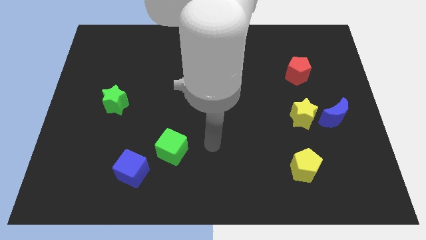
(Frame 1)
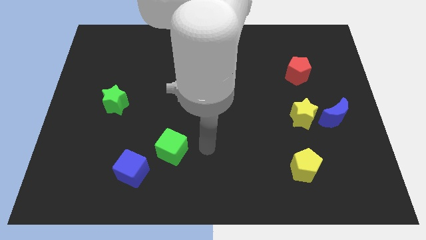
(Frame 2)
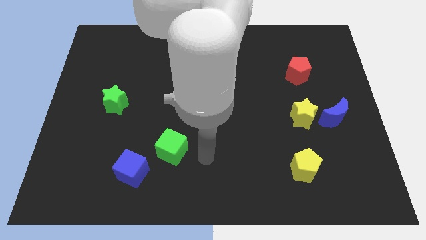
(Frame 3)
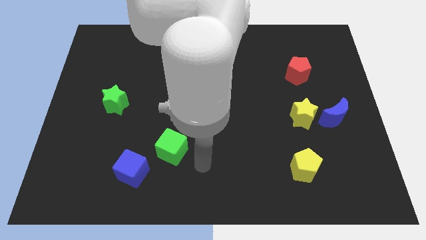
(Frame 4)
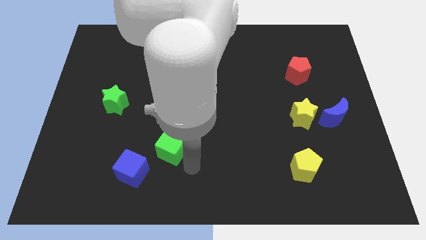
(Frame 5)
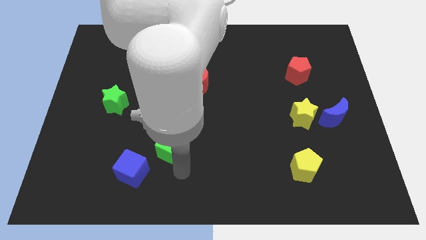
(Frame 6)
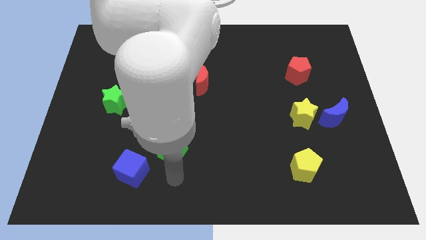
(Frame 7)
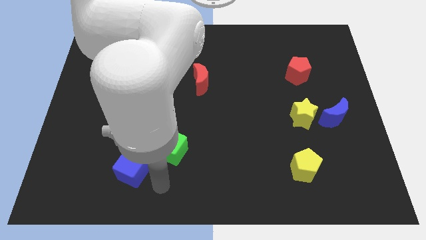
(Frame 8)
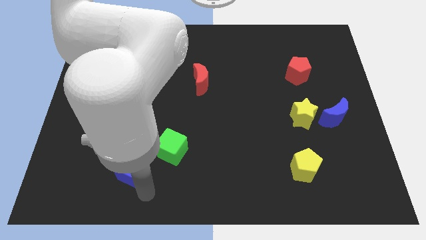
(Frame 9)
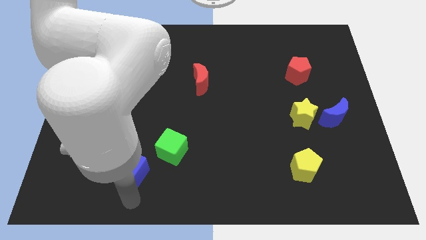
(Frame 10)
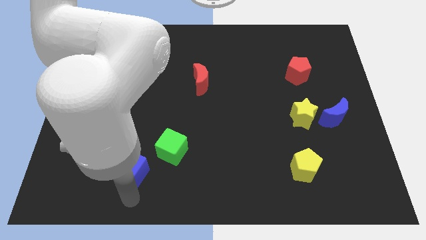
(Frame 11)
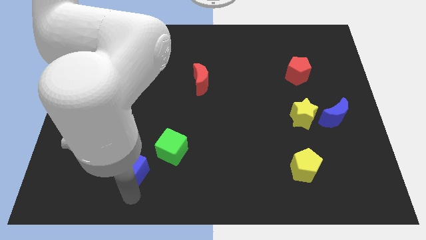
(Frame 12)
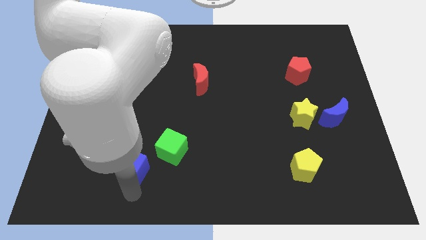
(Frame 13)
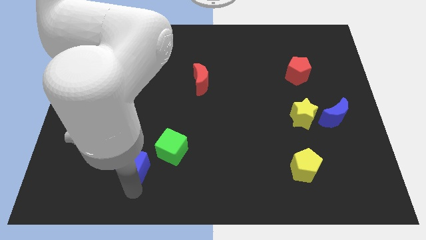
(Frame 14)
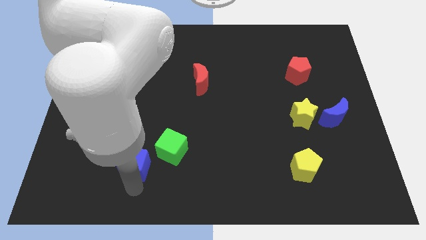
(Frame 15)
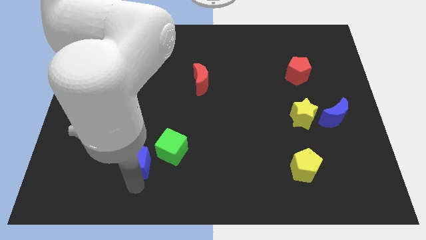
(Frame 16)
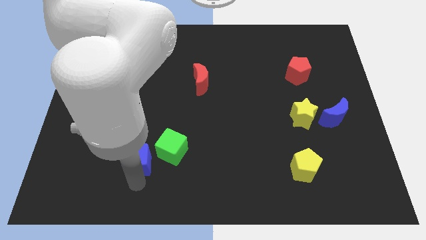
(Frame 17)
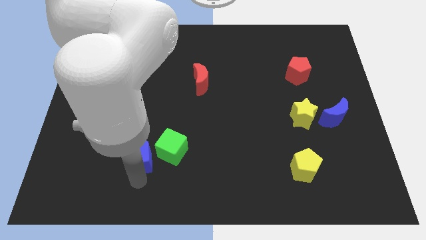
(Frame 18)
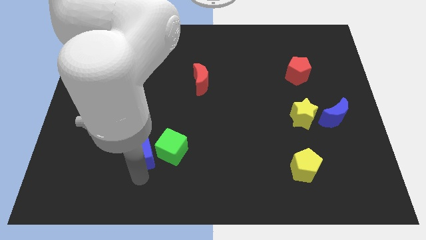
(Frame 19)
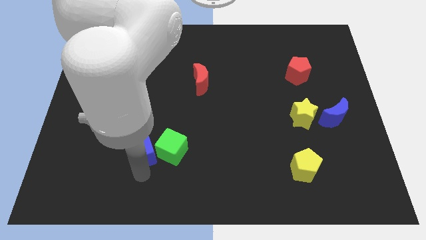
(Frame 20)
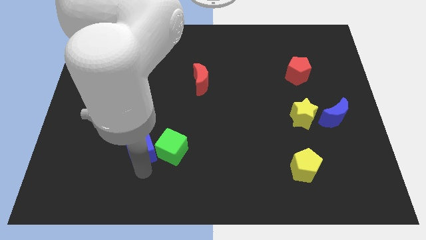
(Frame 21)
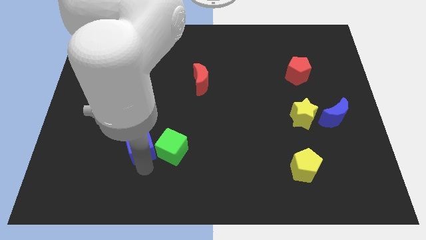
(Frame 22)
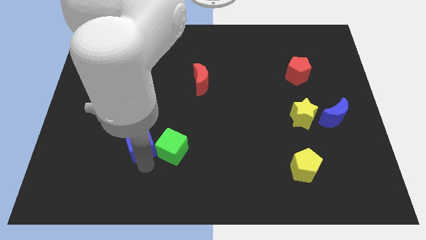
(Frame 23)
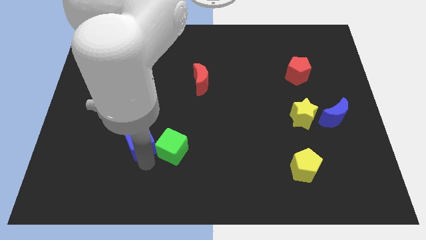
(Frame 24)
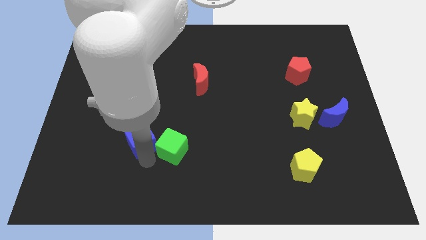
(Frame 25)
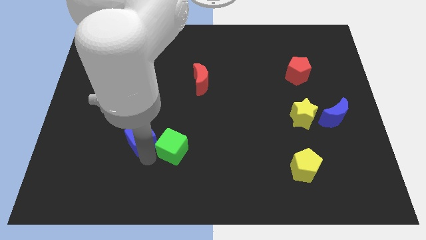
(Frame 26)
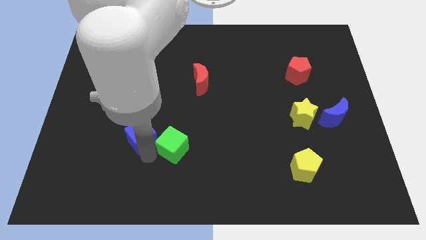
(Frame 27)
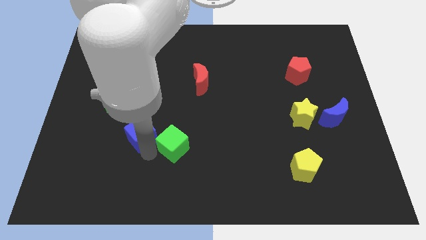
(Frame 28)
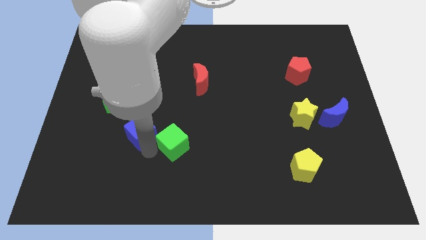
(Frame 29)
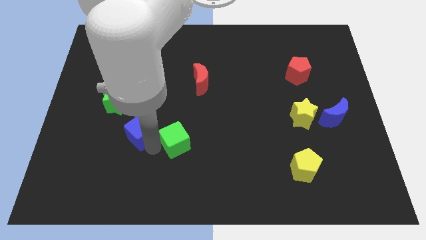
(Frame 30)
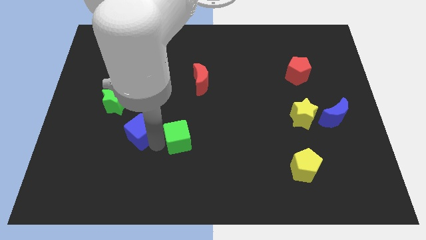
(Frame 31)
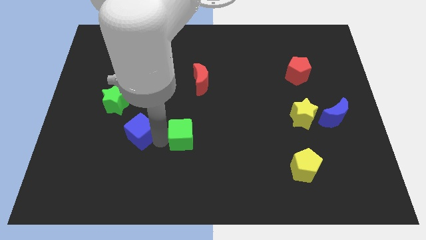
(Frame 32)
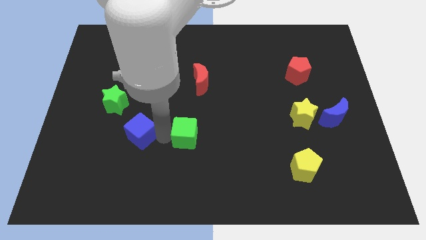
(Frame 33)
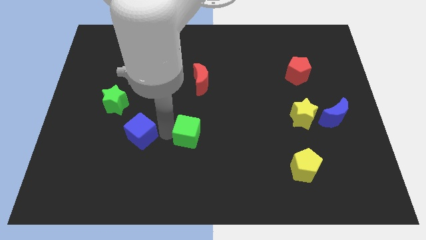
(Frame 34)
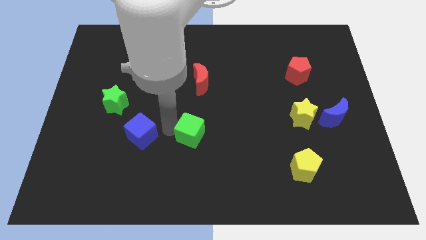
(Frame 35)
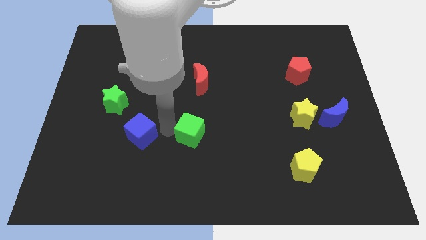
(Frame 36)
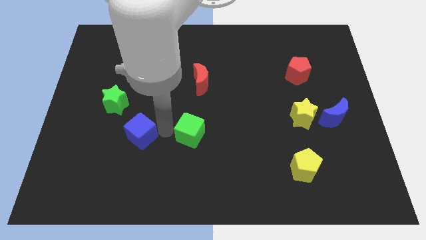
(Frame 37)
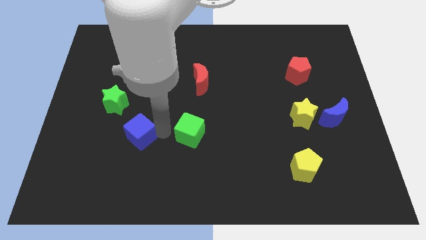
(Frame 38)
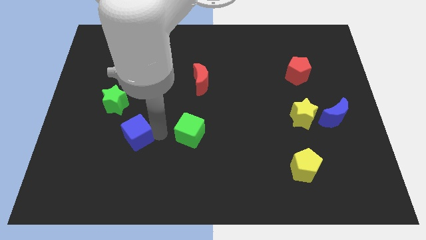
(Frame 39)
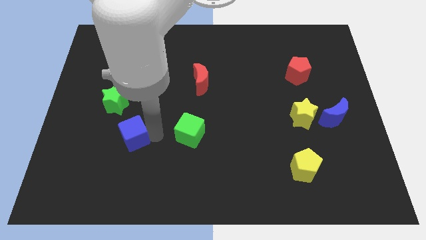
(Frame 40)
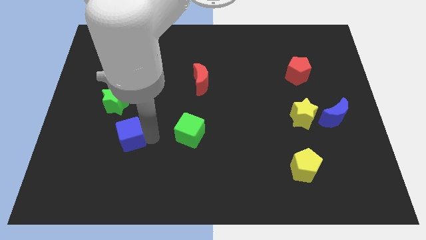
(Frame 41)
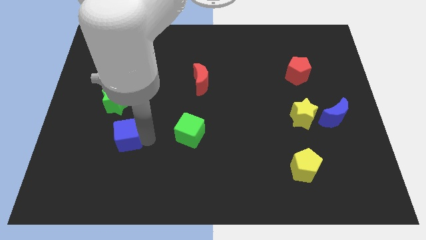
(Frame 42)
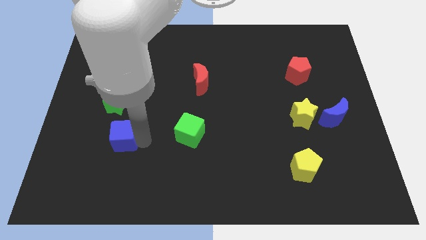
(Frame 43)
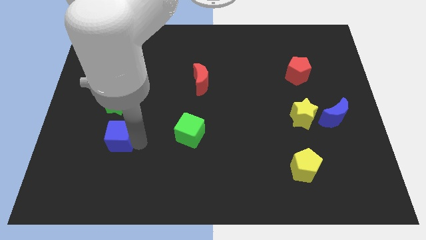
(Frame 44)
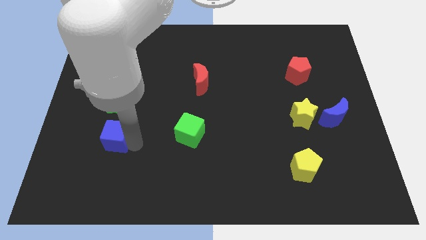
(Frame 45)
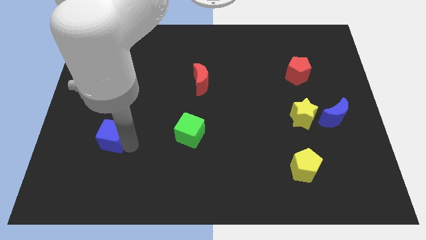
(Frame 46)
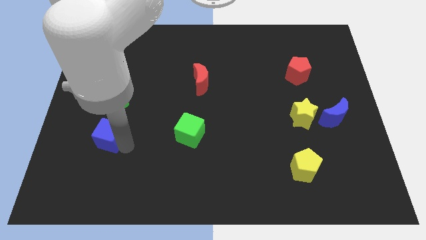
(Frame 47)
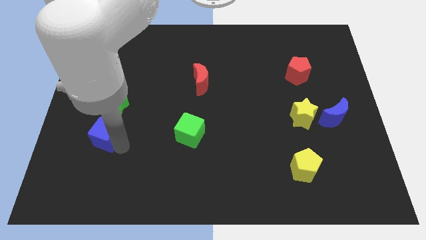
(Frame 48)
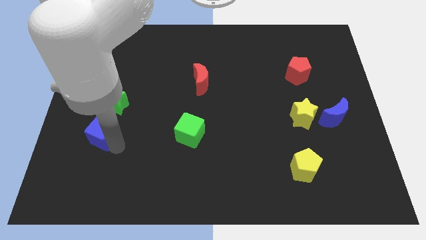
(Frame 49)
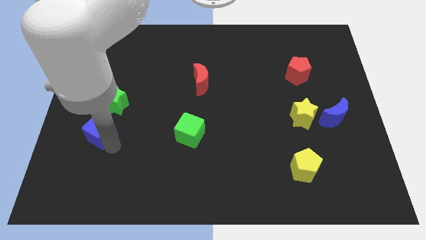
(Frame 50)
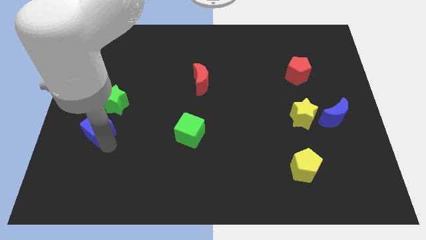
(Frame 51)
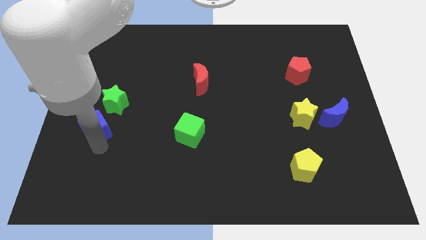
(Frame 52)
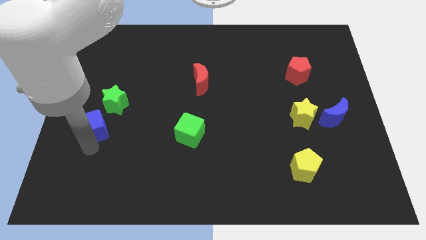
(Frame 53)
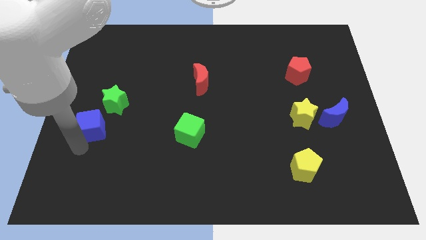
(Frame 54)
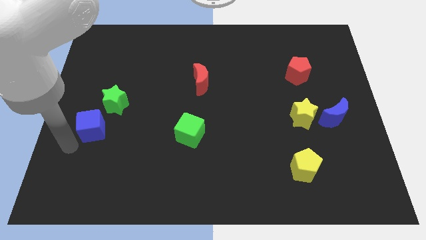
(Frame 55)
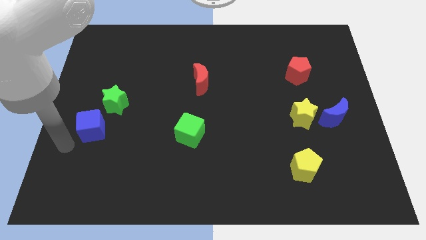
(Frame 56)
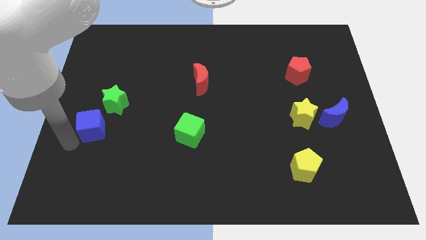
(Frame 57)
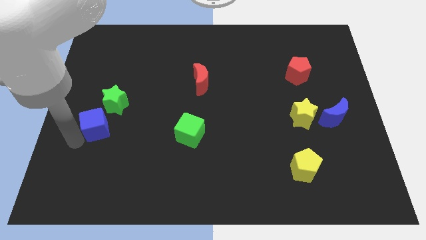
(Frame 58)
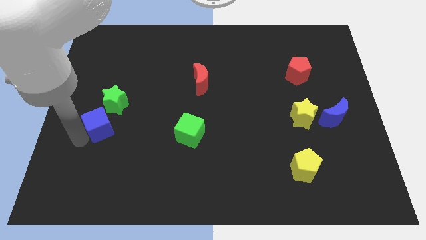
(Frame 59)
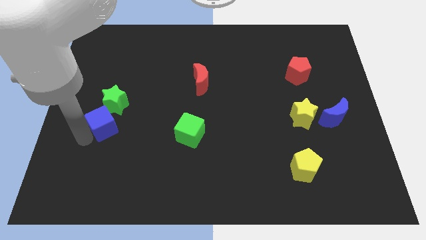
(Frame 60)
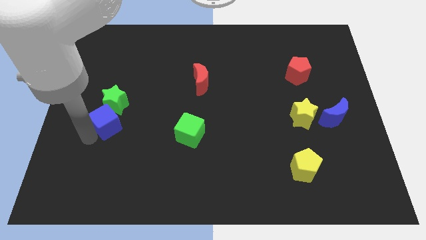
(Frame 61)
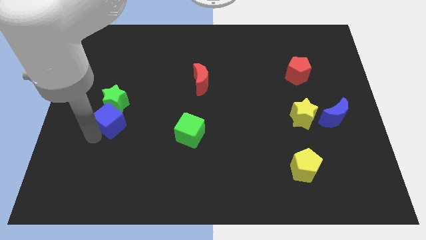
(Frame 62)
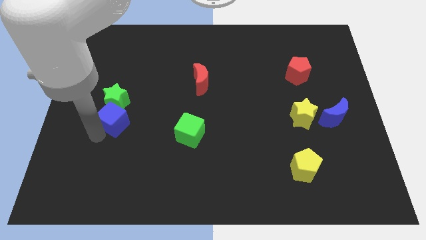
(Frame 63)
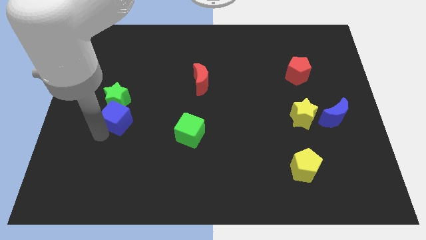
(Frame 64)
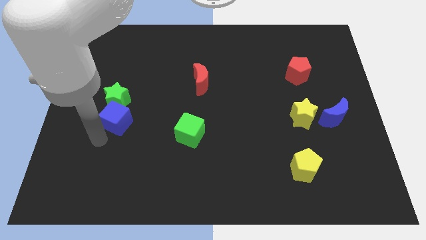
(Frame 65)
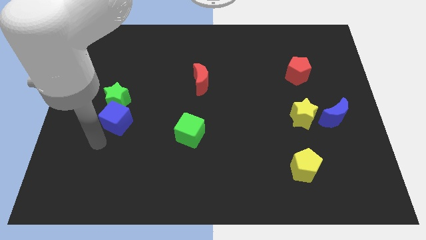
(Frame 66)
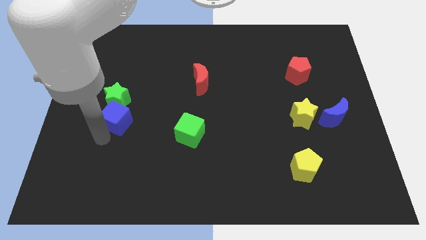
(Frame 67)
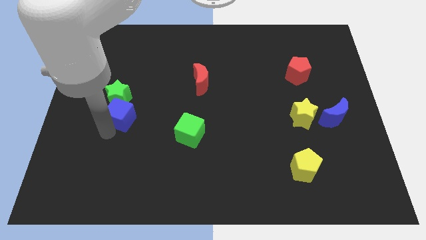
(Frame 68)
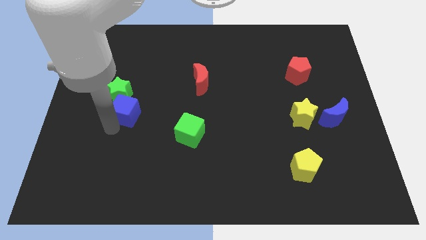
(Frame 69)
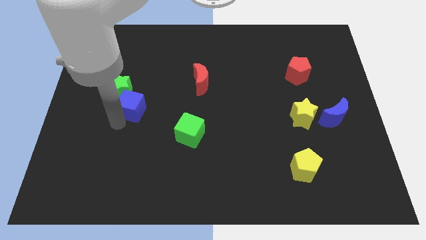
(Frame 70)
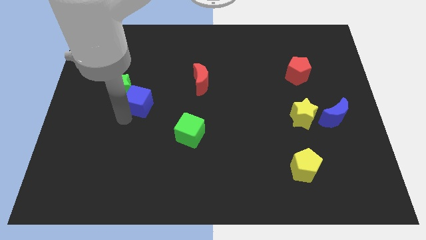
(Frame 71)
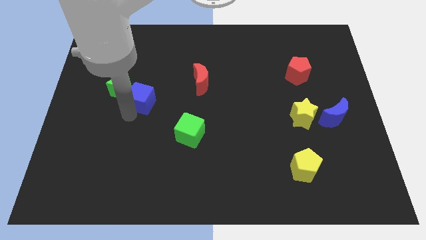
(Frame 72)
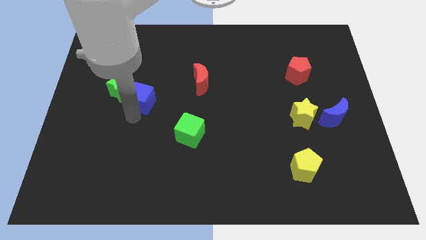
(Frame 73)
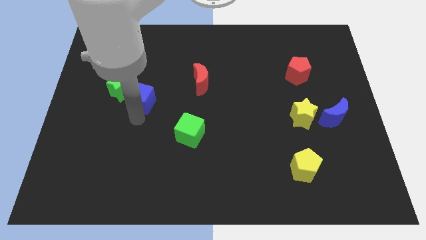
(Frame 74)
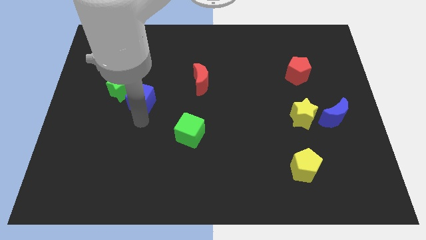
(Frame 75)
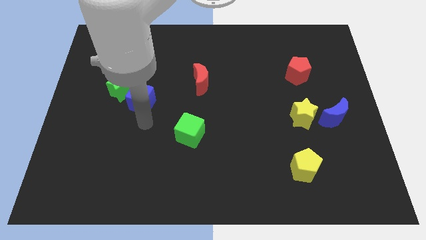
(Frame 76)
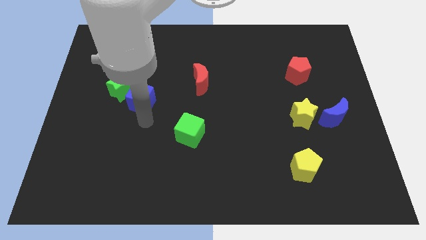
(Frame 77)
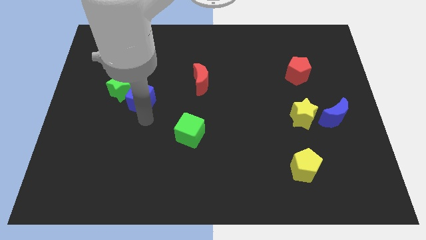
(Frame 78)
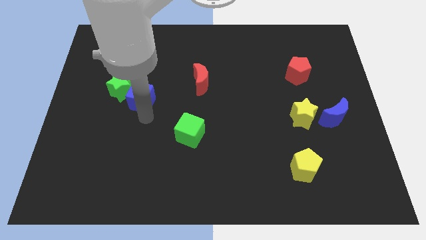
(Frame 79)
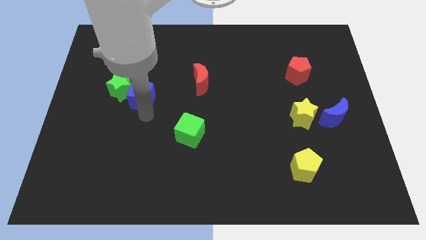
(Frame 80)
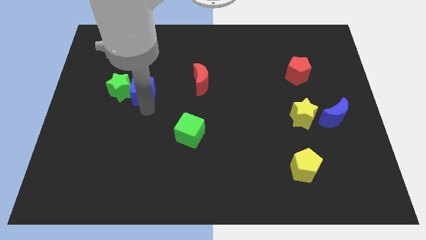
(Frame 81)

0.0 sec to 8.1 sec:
push the blue cube up
